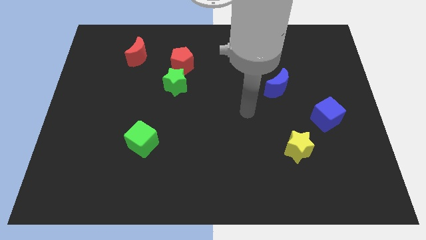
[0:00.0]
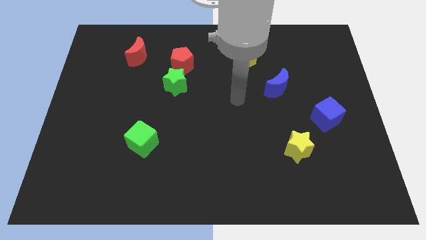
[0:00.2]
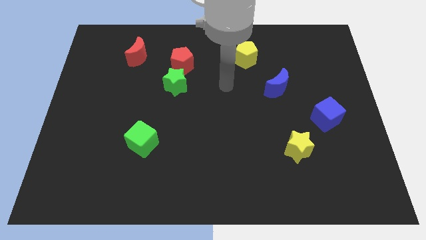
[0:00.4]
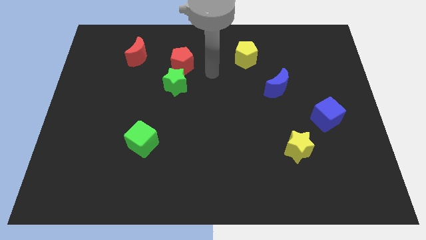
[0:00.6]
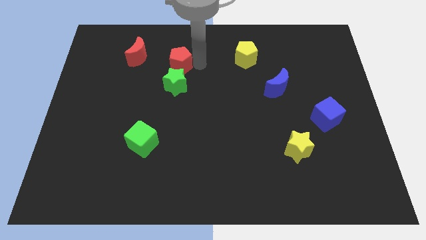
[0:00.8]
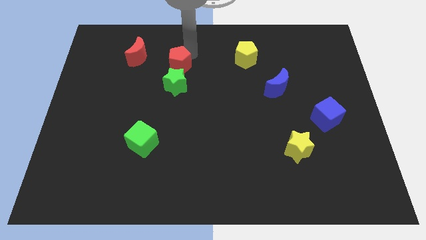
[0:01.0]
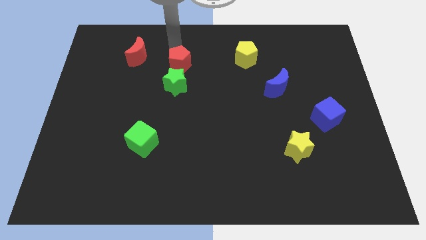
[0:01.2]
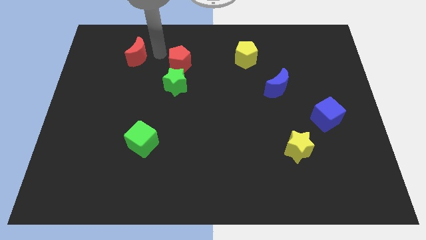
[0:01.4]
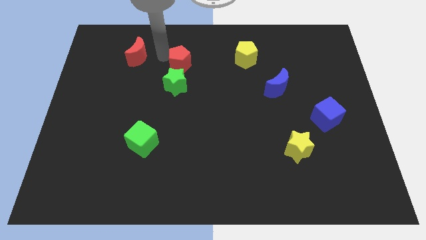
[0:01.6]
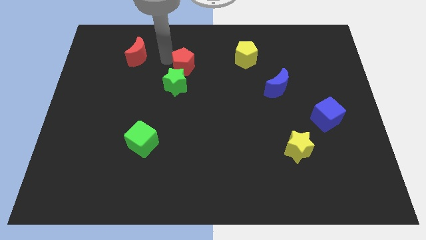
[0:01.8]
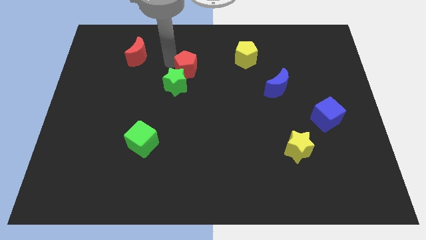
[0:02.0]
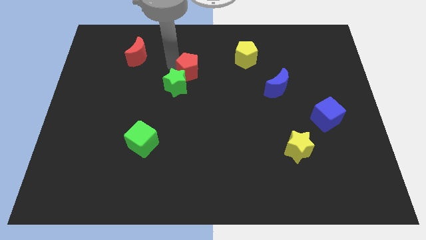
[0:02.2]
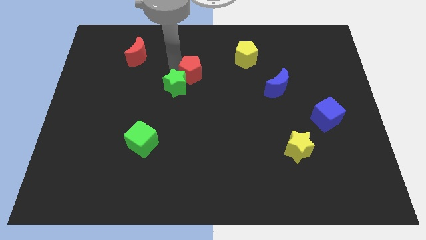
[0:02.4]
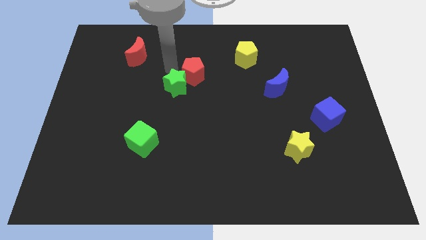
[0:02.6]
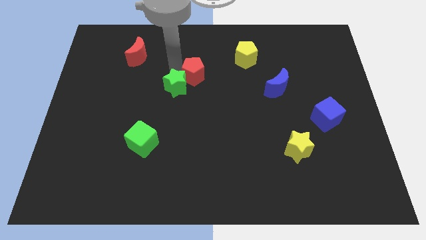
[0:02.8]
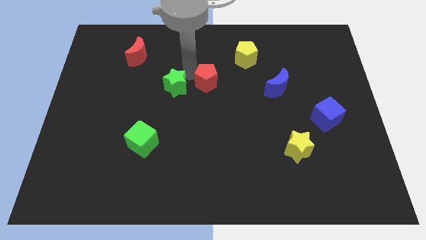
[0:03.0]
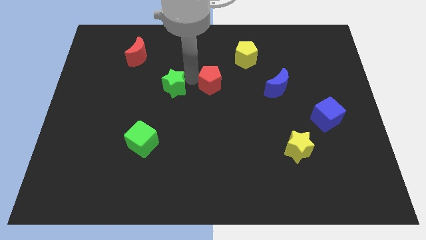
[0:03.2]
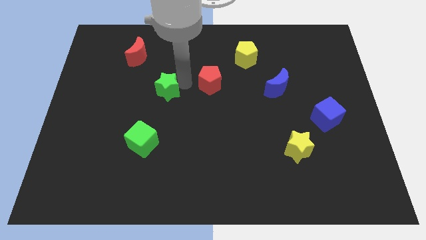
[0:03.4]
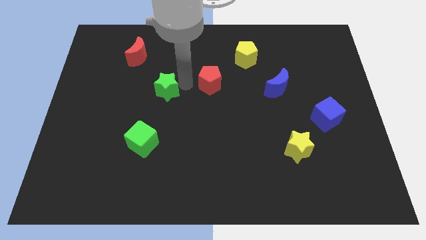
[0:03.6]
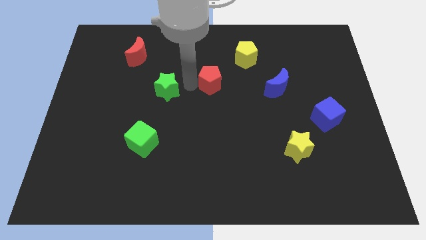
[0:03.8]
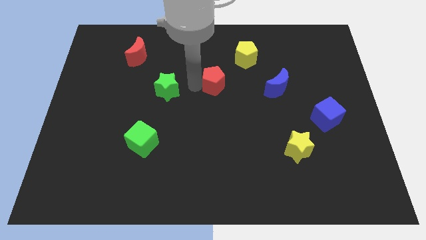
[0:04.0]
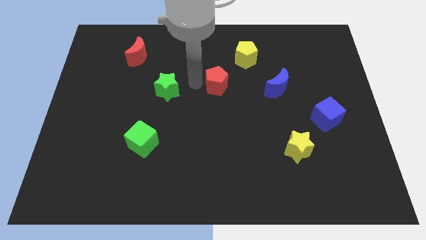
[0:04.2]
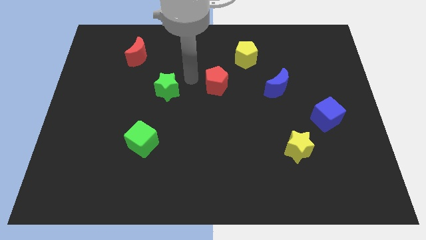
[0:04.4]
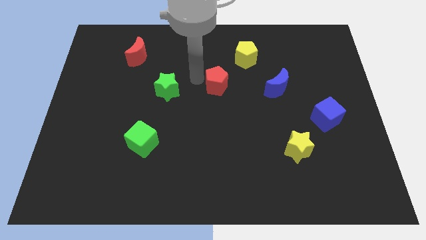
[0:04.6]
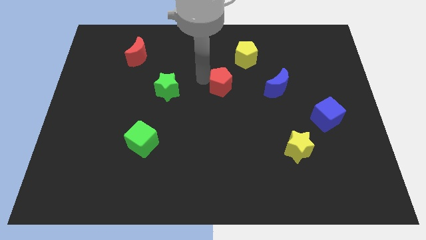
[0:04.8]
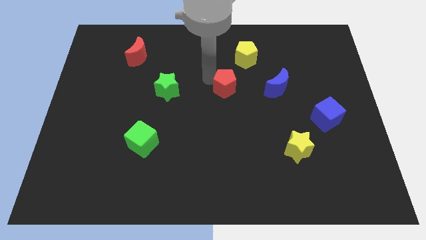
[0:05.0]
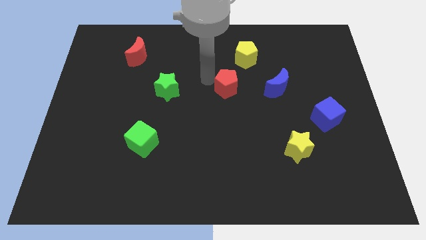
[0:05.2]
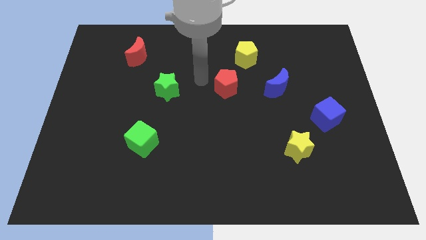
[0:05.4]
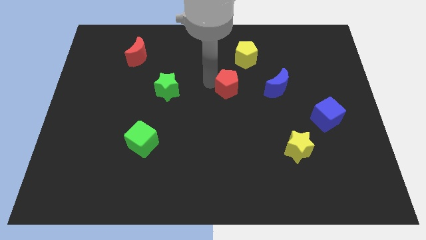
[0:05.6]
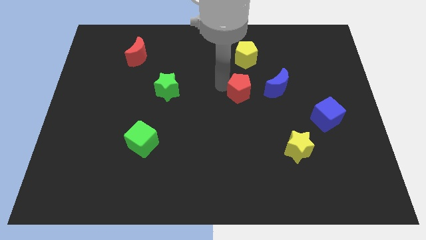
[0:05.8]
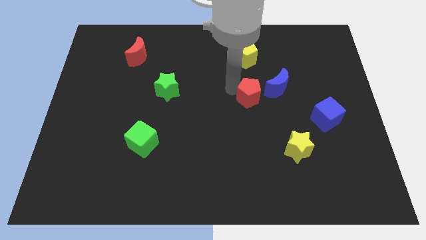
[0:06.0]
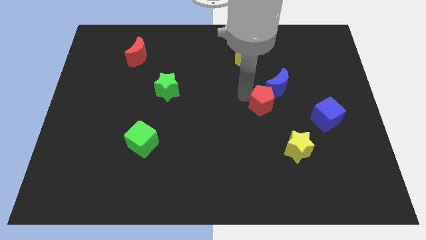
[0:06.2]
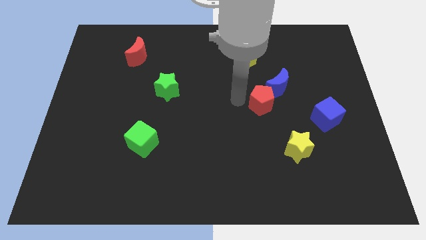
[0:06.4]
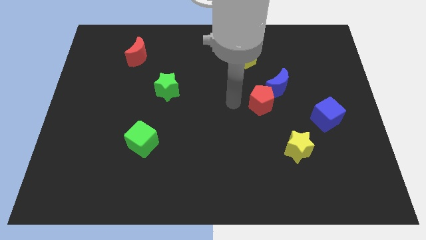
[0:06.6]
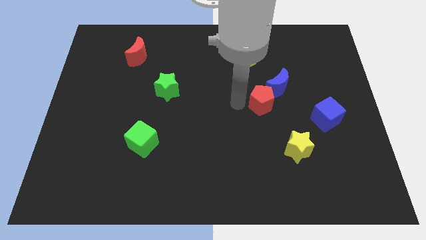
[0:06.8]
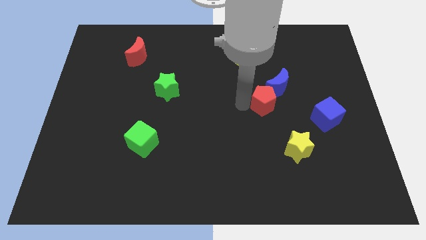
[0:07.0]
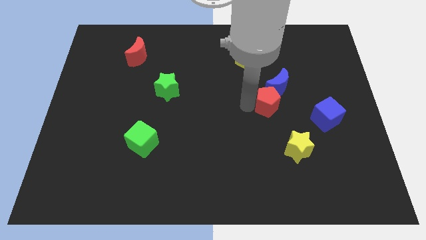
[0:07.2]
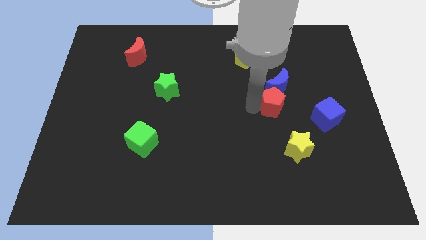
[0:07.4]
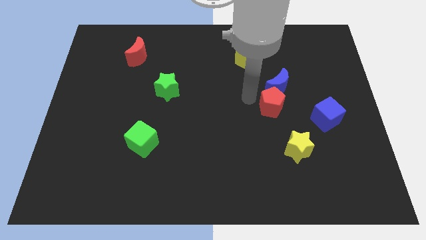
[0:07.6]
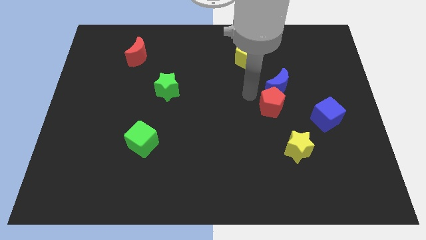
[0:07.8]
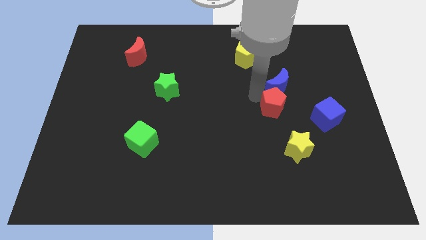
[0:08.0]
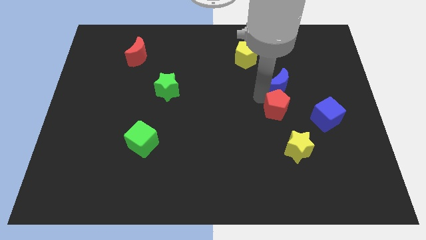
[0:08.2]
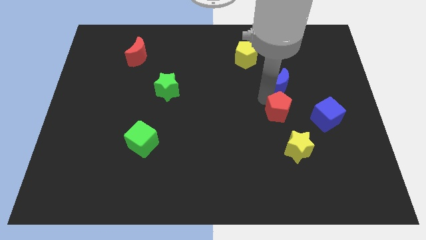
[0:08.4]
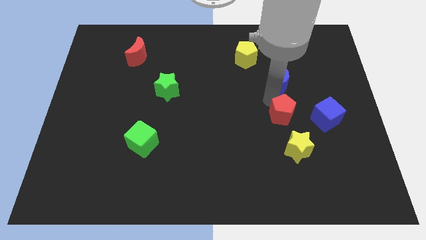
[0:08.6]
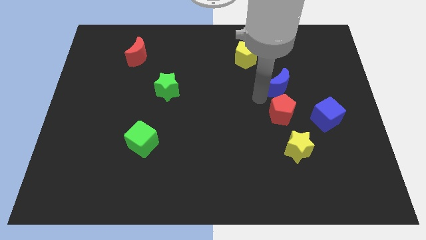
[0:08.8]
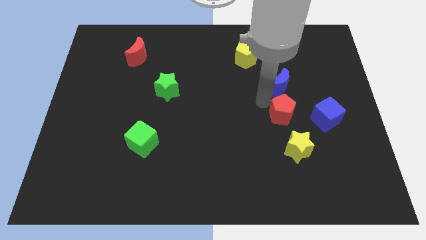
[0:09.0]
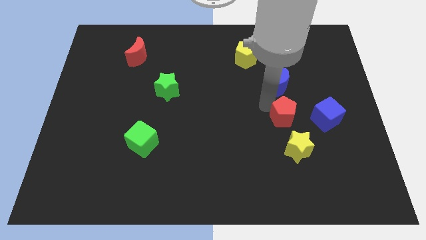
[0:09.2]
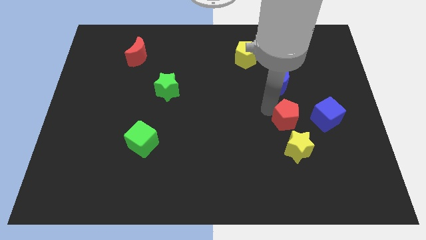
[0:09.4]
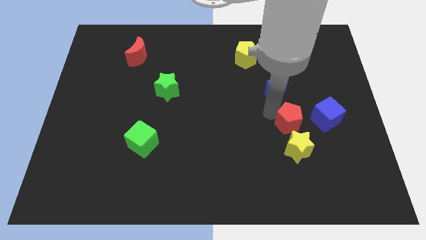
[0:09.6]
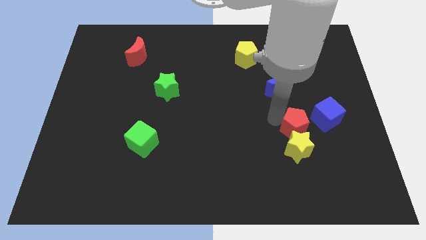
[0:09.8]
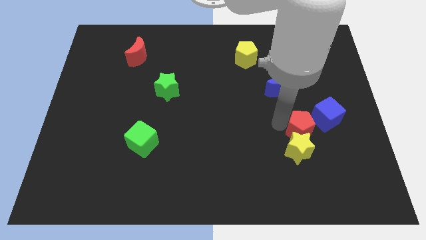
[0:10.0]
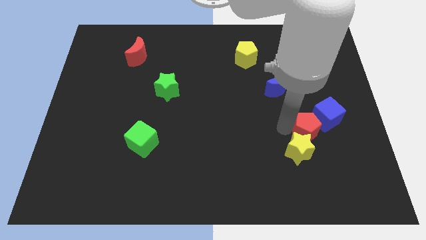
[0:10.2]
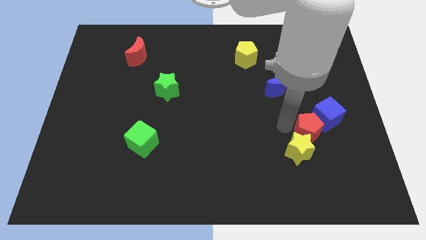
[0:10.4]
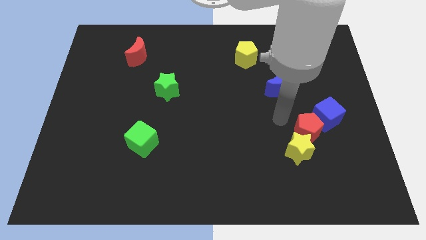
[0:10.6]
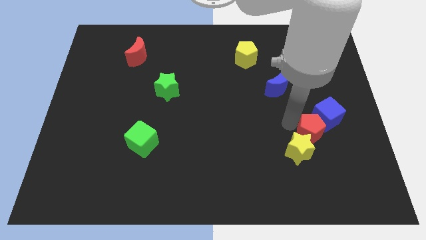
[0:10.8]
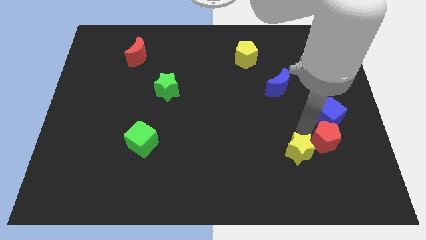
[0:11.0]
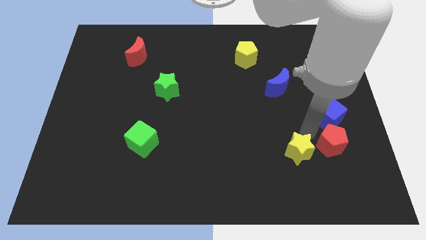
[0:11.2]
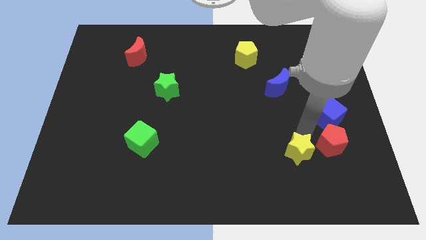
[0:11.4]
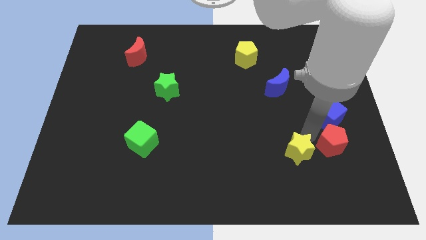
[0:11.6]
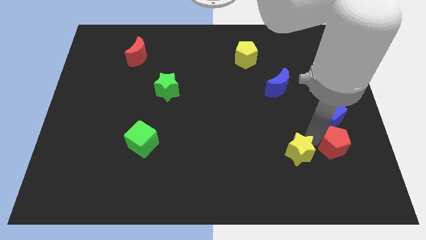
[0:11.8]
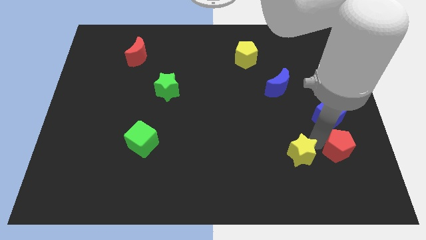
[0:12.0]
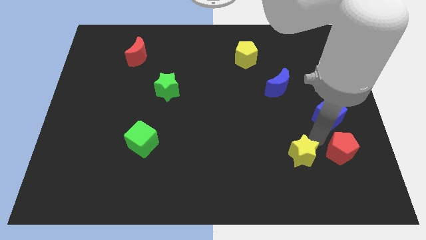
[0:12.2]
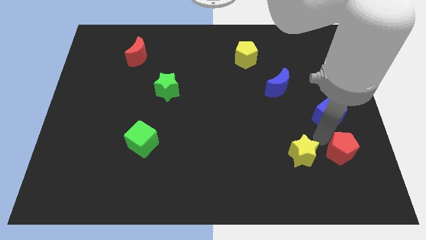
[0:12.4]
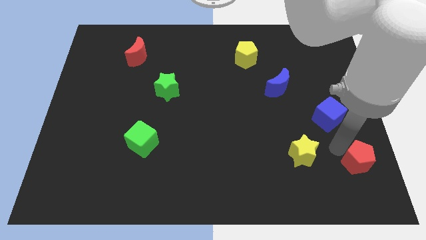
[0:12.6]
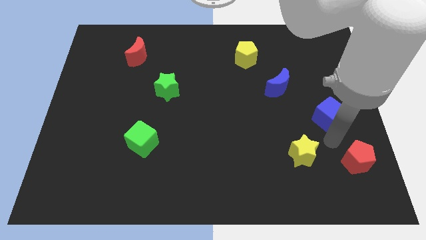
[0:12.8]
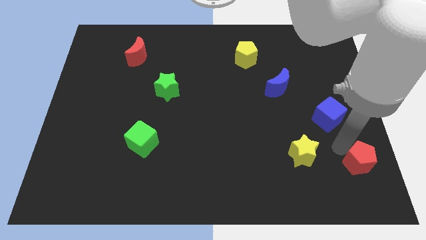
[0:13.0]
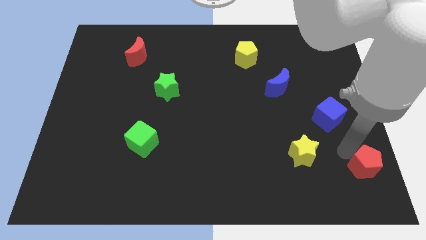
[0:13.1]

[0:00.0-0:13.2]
put the red pentagon to the bottom right
